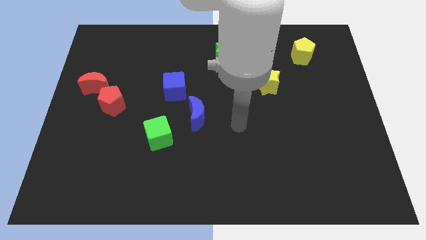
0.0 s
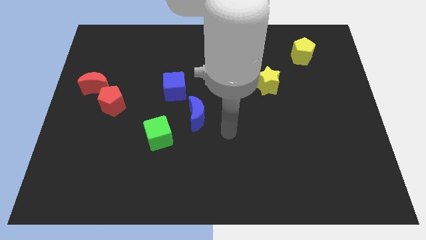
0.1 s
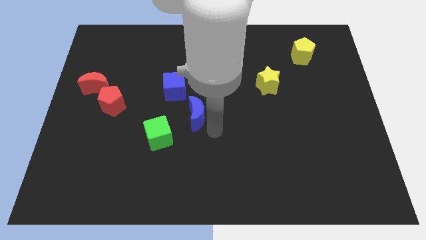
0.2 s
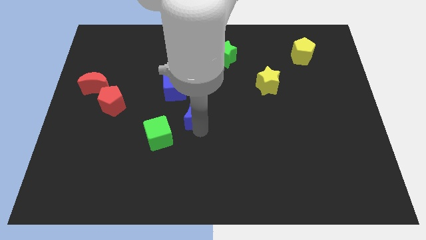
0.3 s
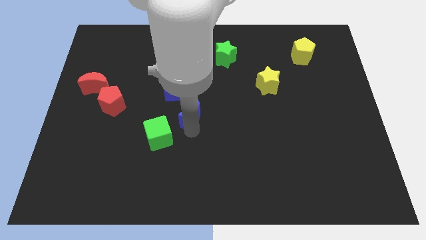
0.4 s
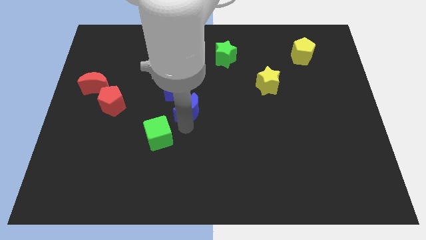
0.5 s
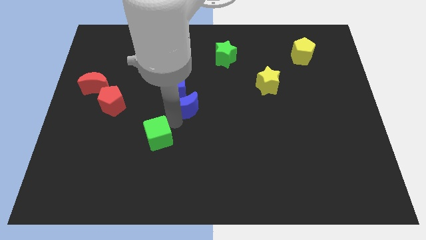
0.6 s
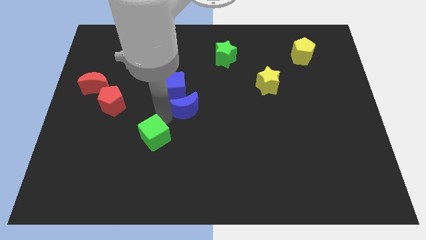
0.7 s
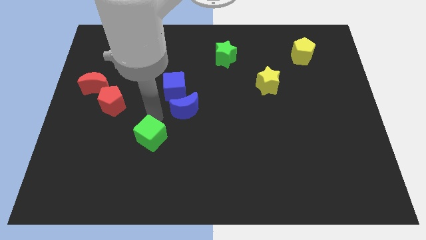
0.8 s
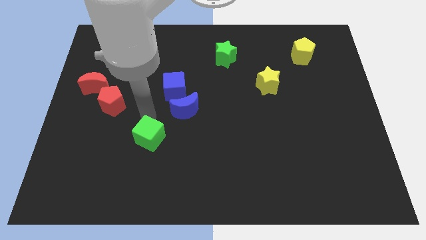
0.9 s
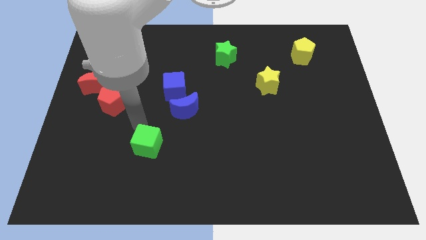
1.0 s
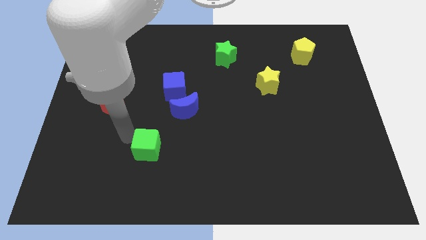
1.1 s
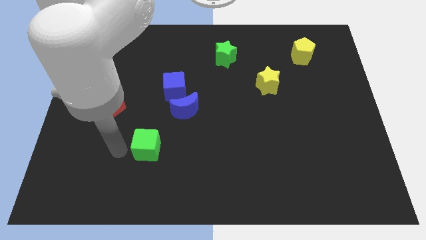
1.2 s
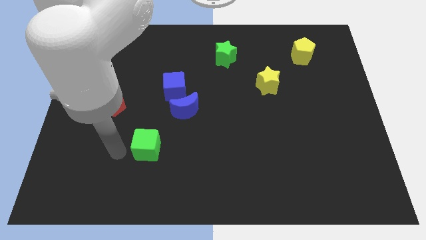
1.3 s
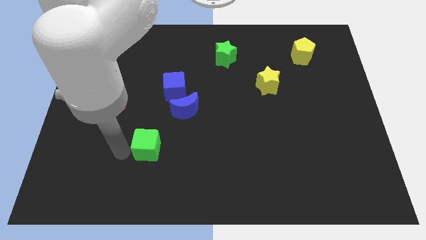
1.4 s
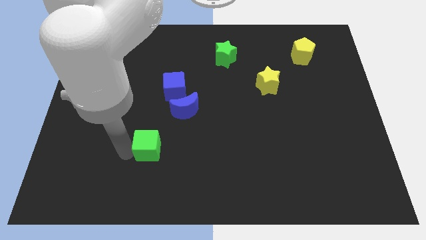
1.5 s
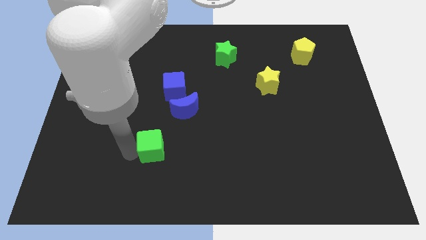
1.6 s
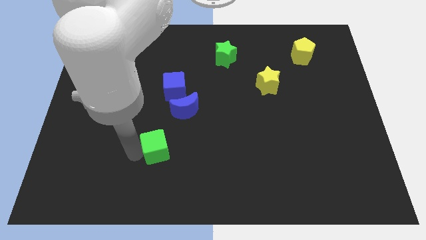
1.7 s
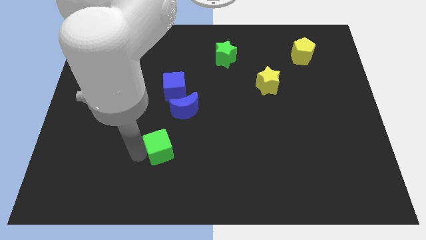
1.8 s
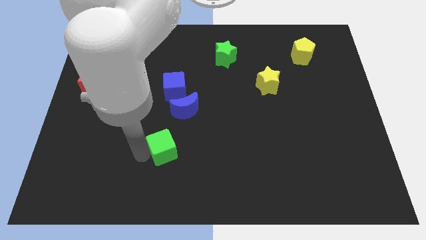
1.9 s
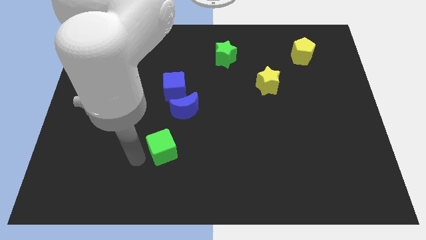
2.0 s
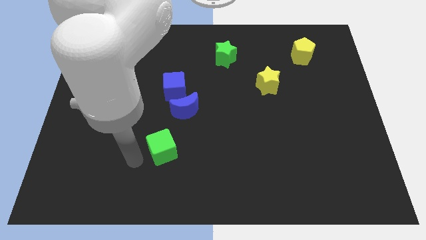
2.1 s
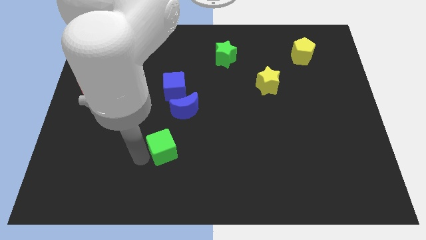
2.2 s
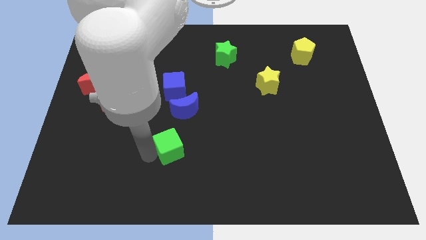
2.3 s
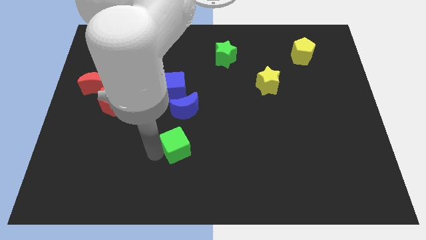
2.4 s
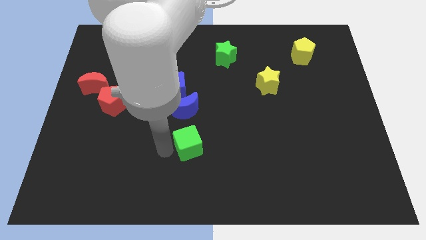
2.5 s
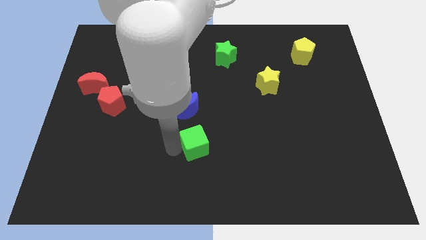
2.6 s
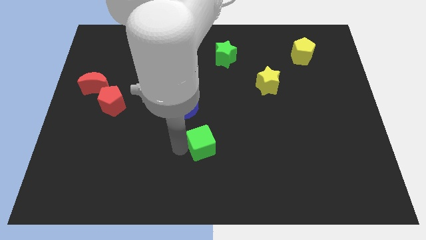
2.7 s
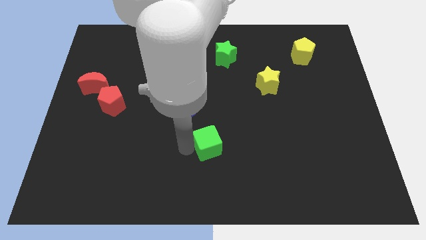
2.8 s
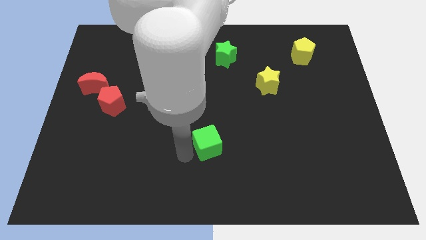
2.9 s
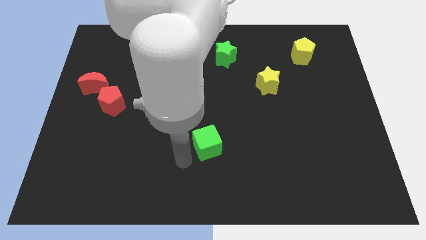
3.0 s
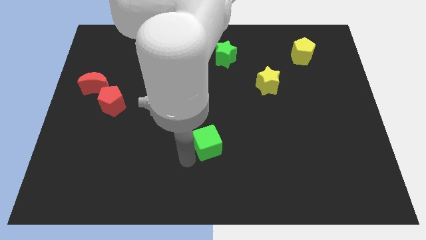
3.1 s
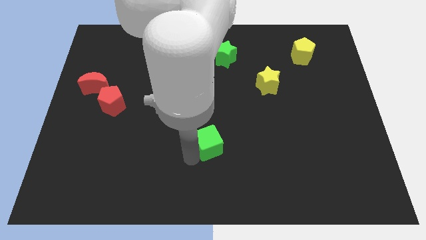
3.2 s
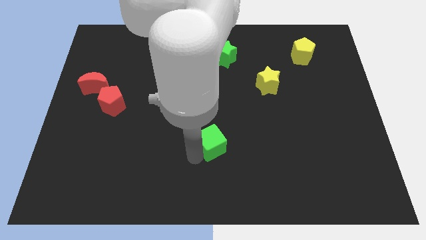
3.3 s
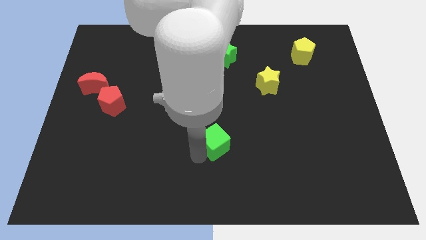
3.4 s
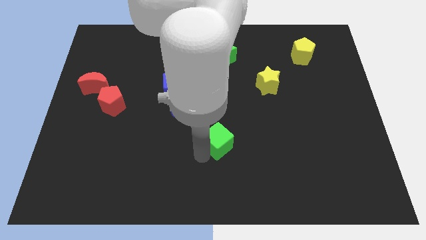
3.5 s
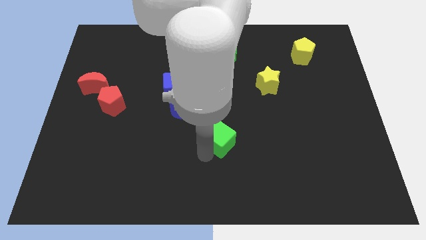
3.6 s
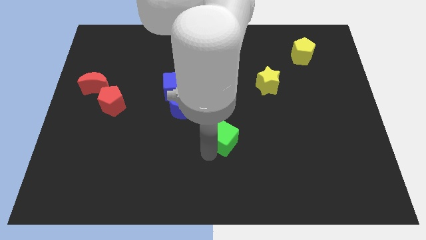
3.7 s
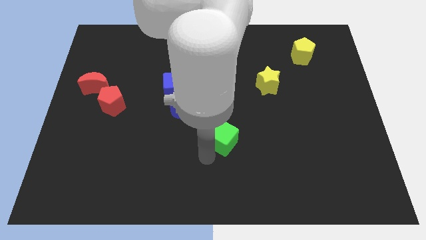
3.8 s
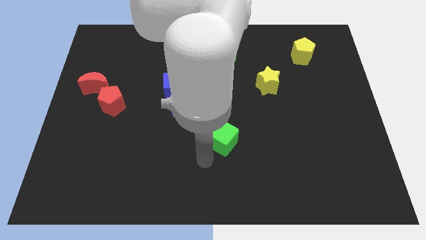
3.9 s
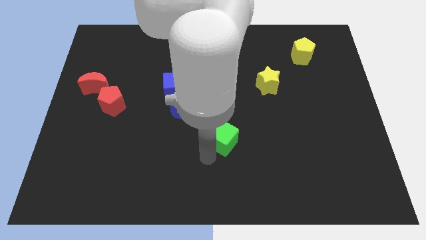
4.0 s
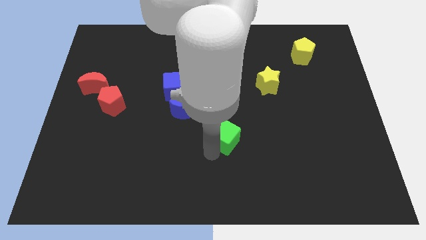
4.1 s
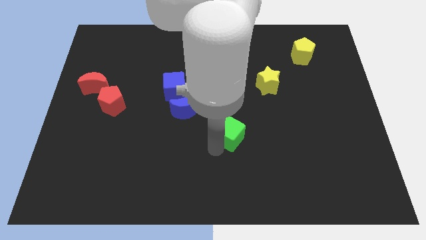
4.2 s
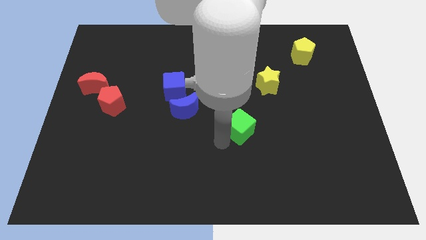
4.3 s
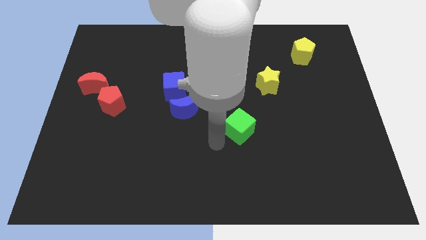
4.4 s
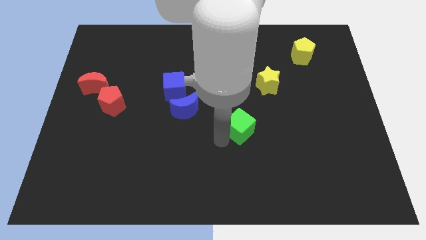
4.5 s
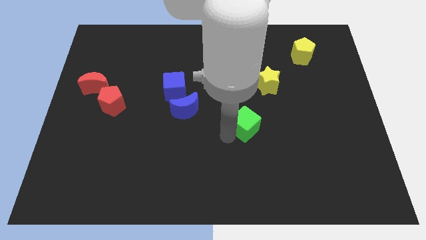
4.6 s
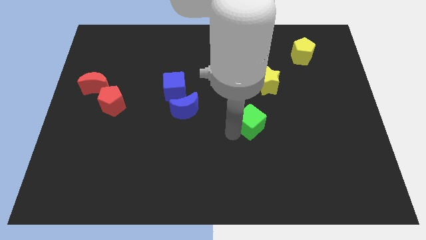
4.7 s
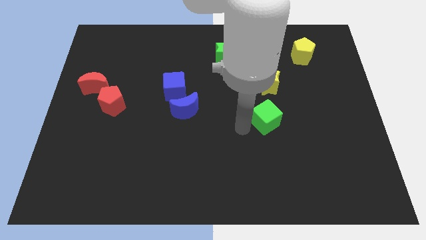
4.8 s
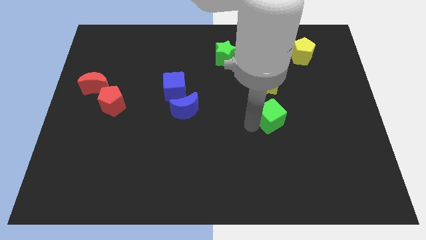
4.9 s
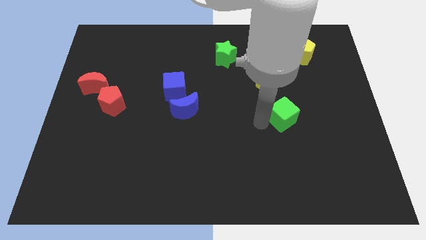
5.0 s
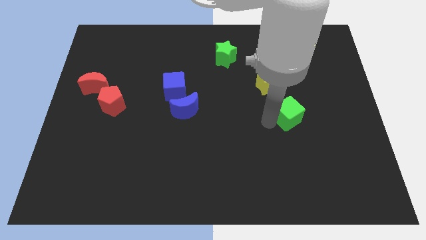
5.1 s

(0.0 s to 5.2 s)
move the green cube diagonally down and to the right of the yellow star

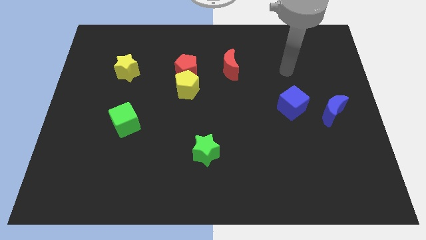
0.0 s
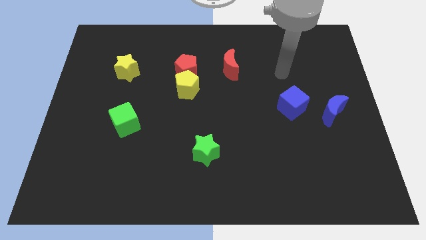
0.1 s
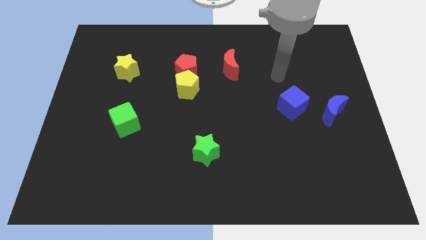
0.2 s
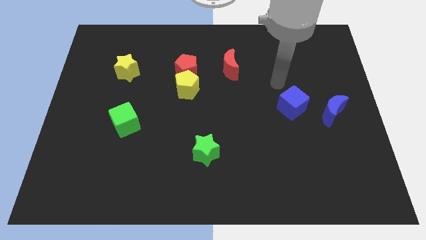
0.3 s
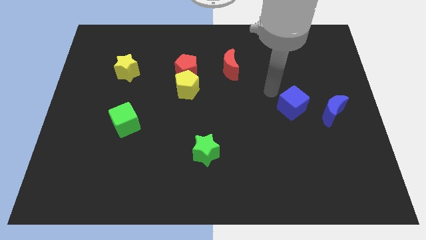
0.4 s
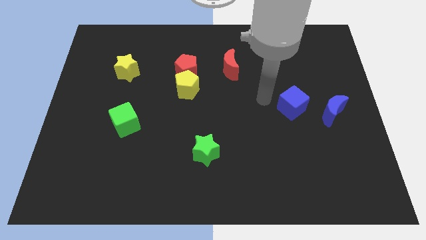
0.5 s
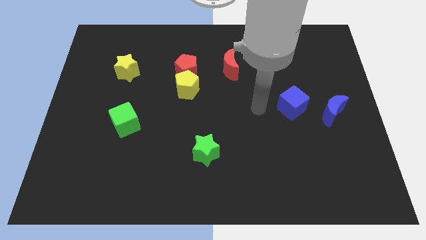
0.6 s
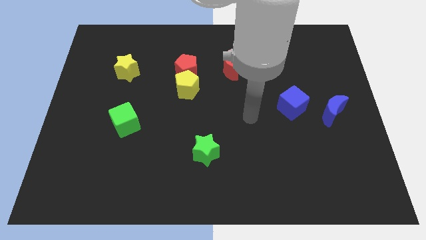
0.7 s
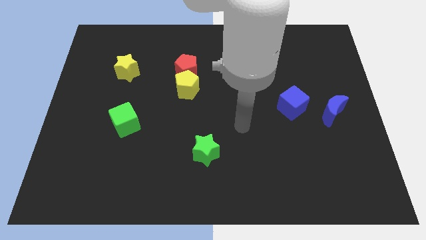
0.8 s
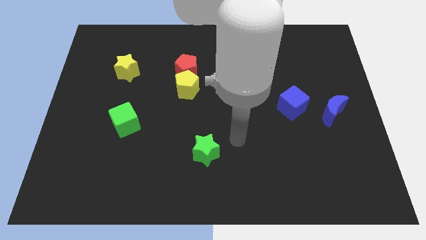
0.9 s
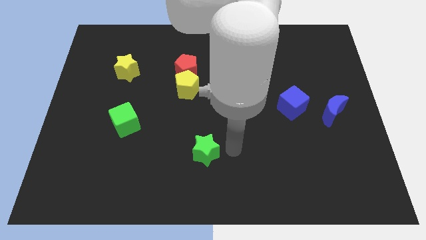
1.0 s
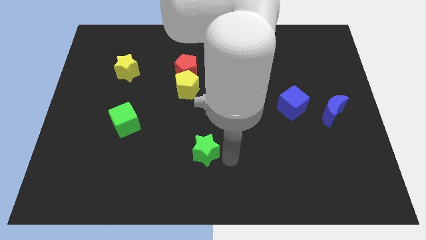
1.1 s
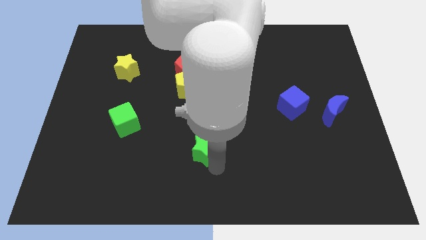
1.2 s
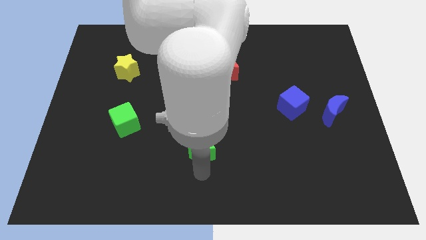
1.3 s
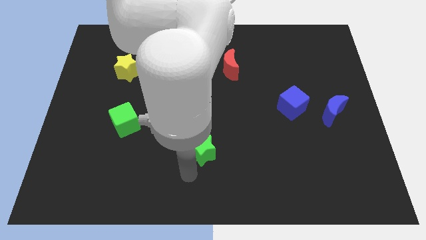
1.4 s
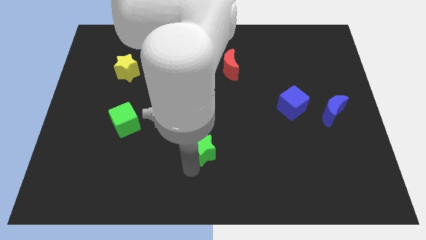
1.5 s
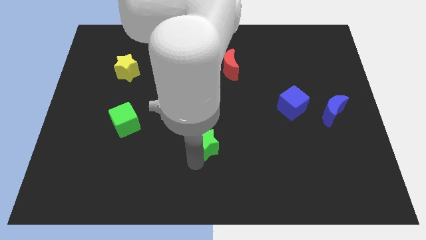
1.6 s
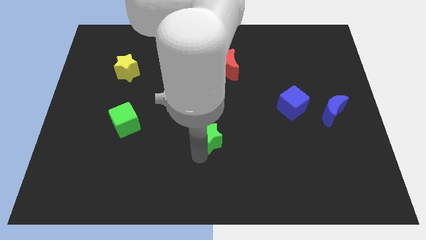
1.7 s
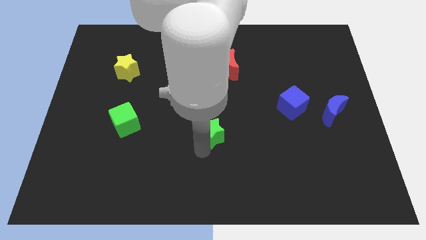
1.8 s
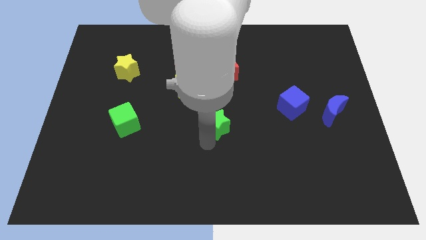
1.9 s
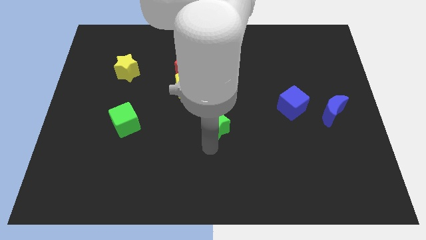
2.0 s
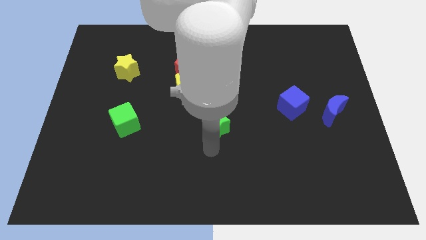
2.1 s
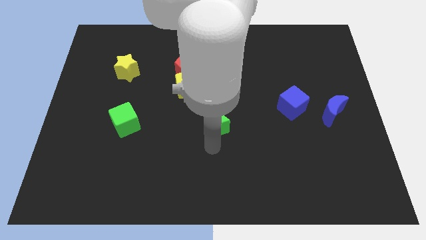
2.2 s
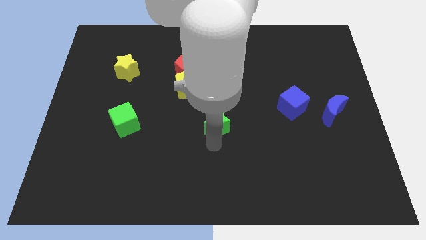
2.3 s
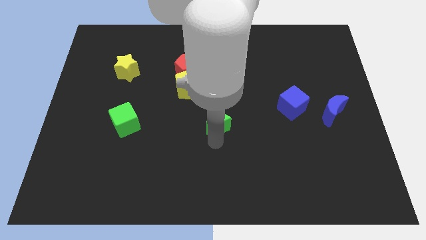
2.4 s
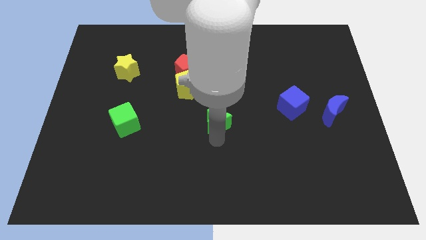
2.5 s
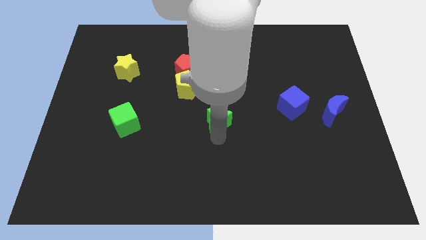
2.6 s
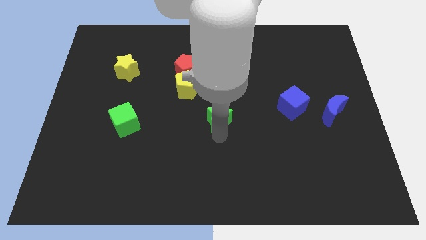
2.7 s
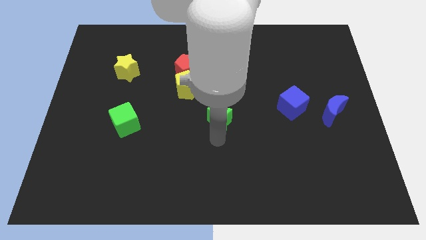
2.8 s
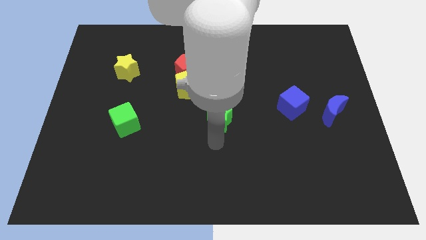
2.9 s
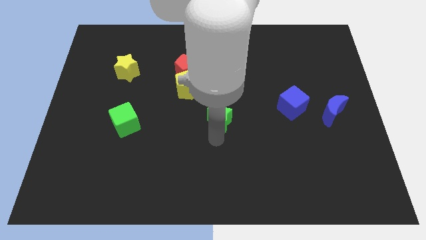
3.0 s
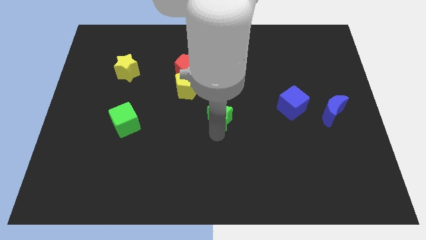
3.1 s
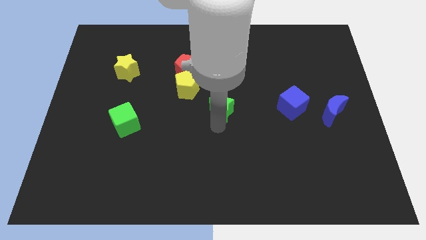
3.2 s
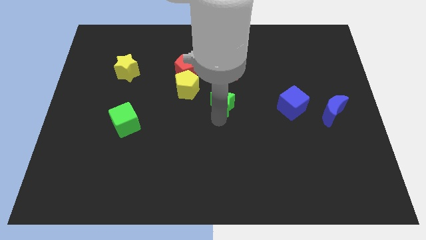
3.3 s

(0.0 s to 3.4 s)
slide the green star to the right side of the yellow pentagon
